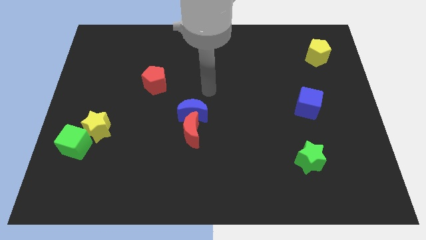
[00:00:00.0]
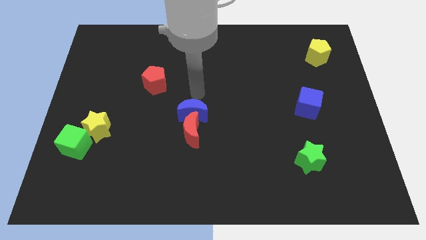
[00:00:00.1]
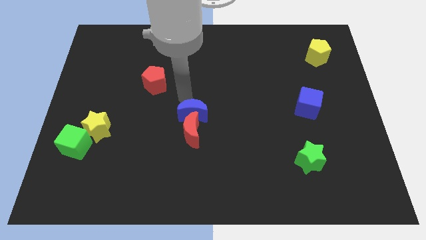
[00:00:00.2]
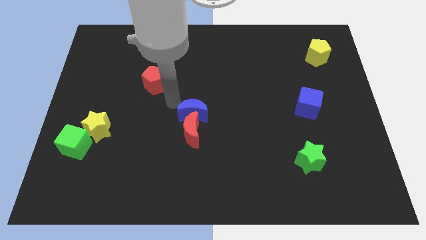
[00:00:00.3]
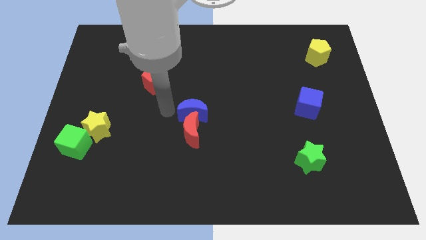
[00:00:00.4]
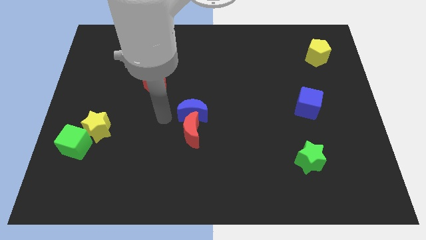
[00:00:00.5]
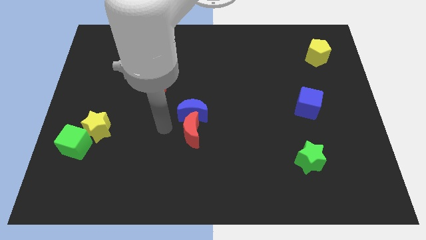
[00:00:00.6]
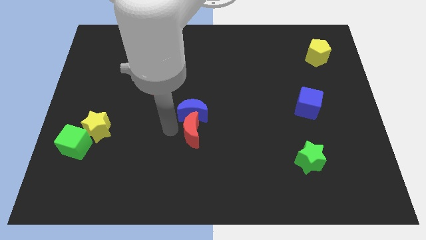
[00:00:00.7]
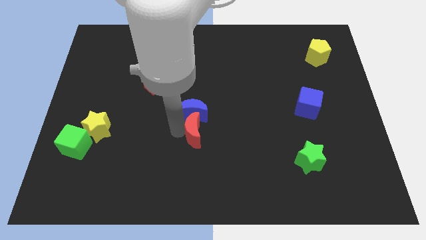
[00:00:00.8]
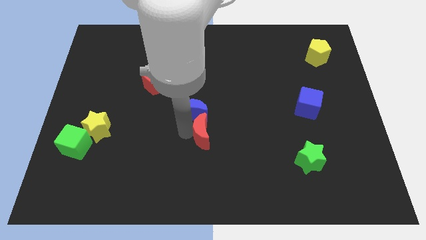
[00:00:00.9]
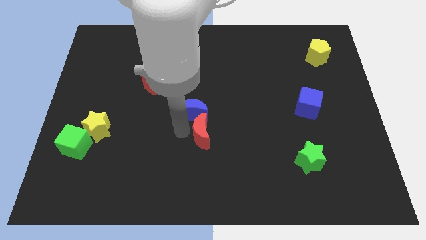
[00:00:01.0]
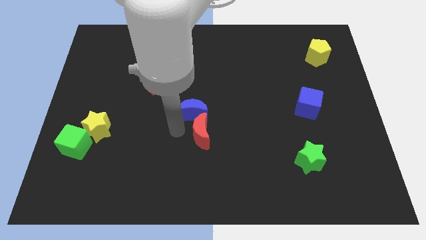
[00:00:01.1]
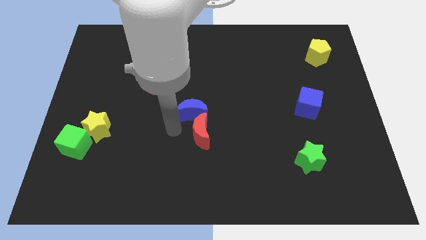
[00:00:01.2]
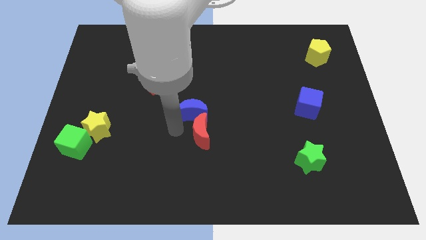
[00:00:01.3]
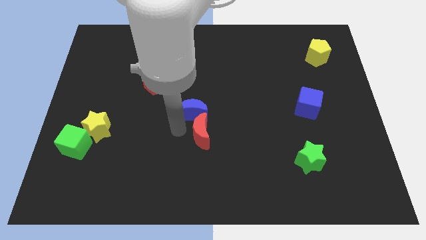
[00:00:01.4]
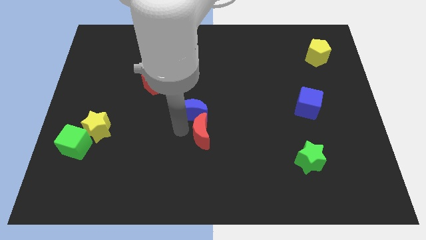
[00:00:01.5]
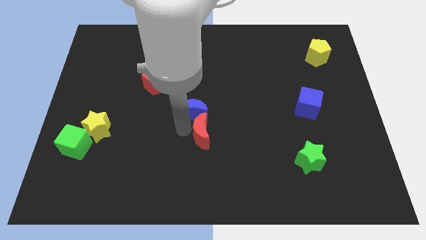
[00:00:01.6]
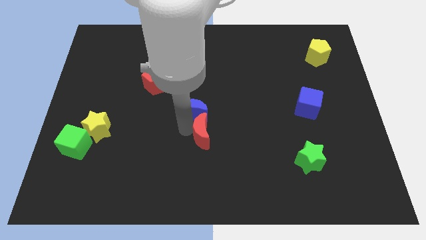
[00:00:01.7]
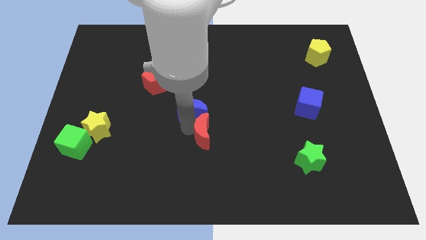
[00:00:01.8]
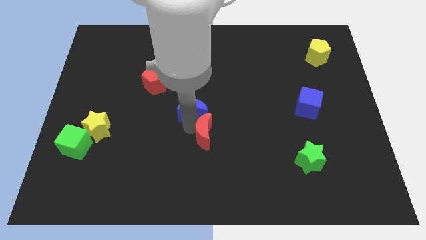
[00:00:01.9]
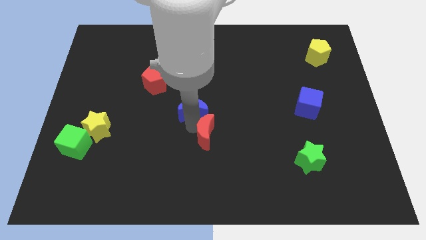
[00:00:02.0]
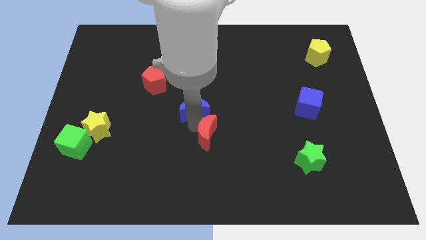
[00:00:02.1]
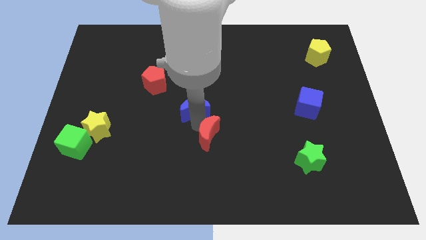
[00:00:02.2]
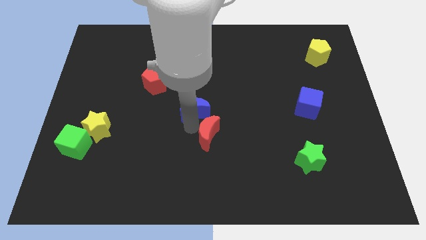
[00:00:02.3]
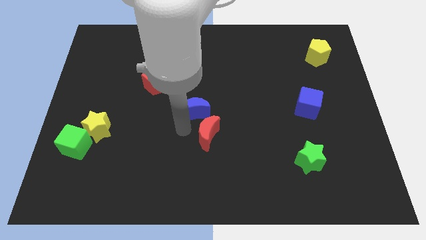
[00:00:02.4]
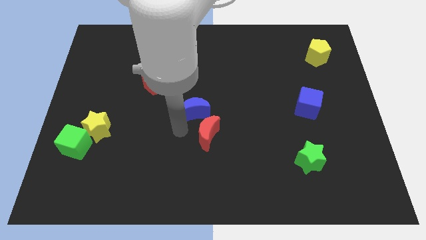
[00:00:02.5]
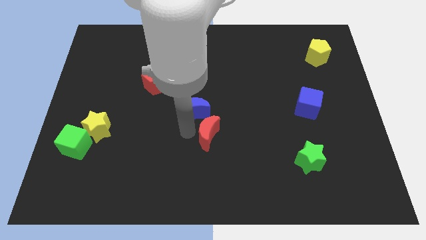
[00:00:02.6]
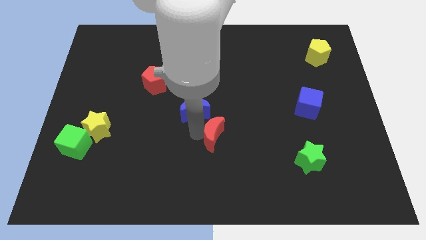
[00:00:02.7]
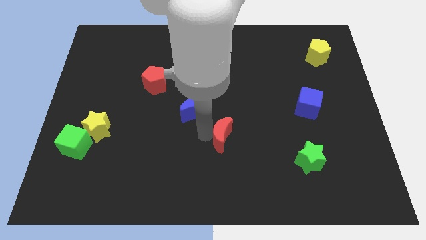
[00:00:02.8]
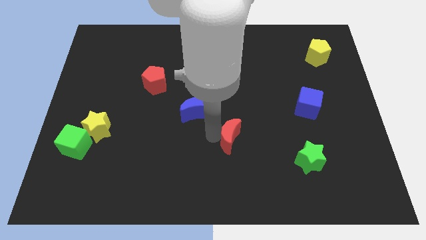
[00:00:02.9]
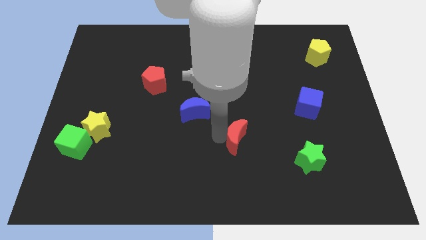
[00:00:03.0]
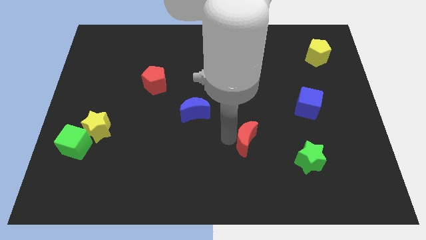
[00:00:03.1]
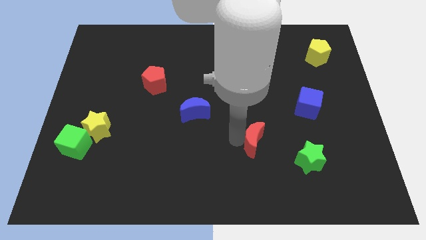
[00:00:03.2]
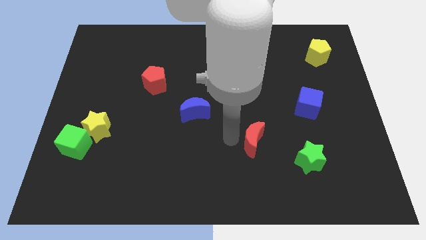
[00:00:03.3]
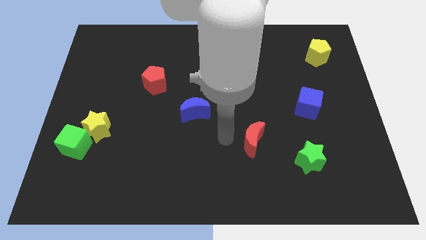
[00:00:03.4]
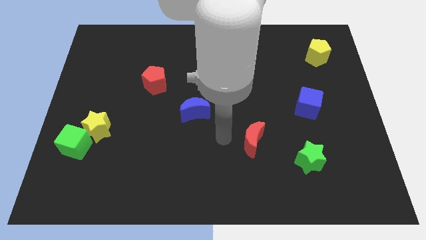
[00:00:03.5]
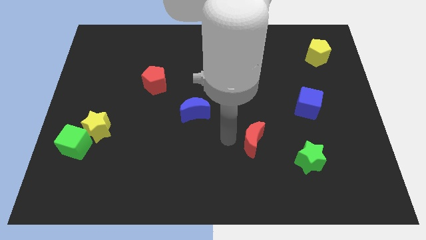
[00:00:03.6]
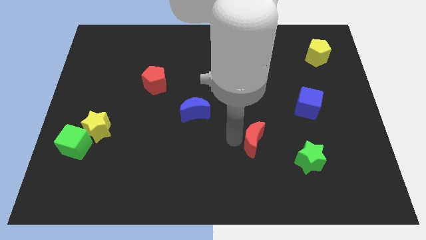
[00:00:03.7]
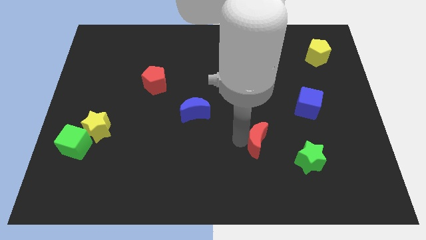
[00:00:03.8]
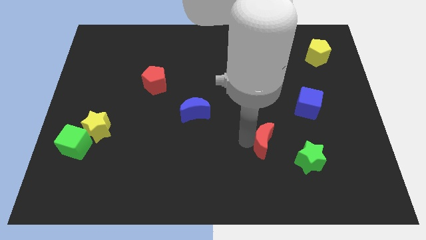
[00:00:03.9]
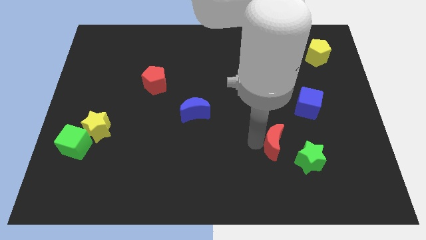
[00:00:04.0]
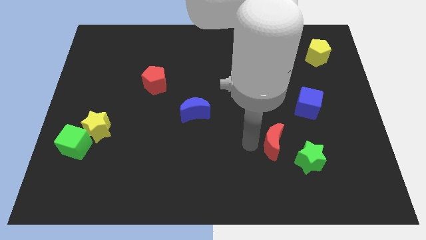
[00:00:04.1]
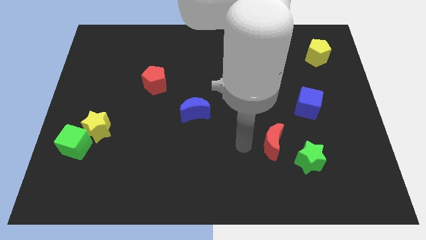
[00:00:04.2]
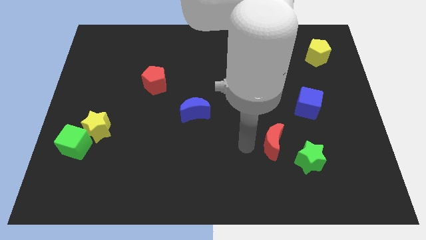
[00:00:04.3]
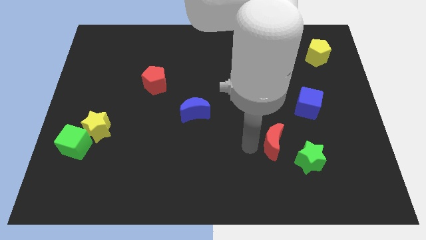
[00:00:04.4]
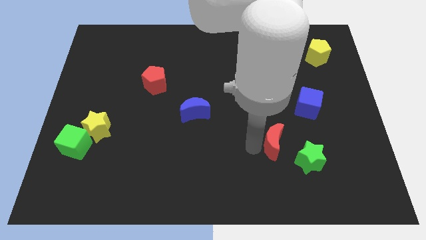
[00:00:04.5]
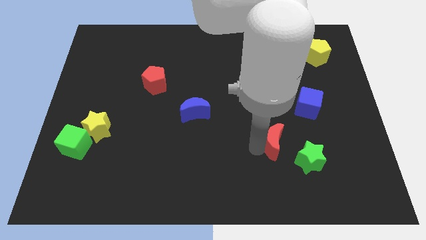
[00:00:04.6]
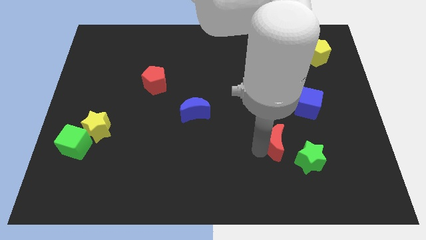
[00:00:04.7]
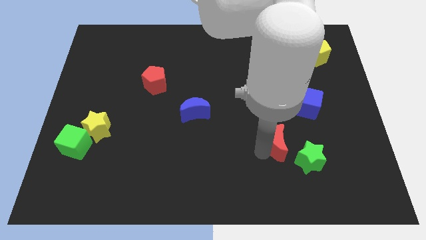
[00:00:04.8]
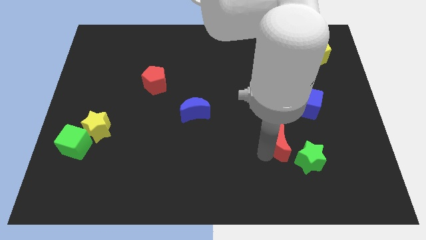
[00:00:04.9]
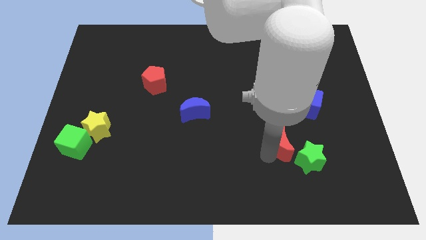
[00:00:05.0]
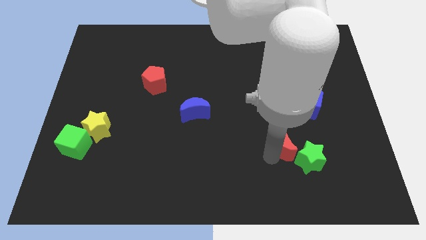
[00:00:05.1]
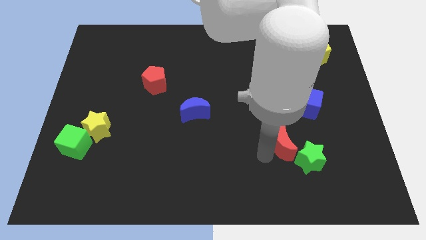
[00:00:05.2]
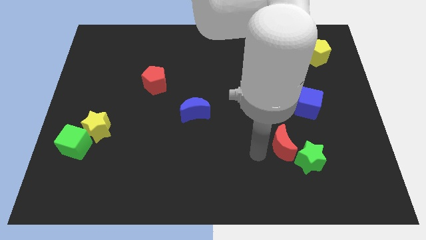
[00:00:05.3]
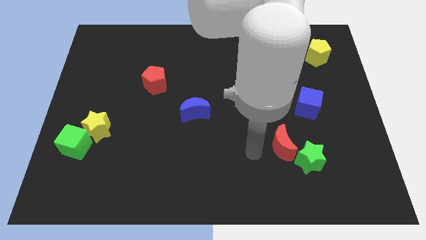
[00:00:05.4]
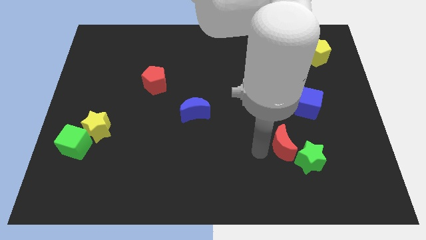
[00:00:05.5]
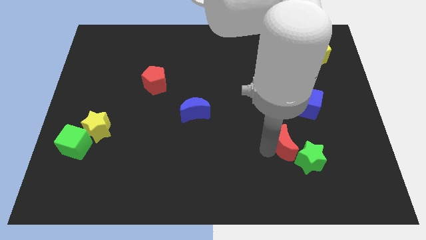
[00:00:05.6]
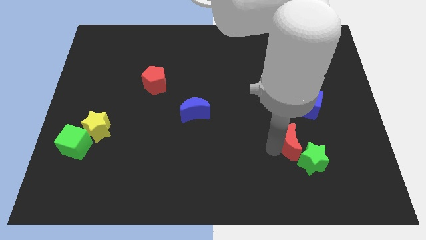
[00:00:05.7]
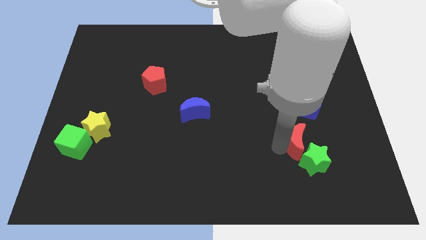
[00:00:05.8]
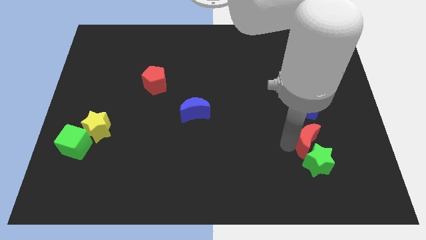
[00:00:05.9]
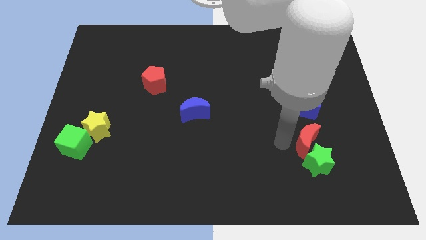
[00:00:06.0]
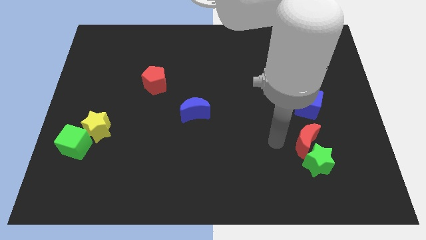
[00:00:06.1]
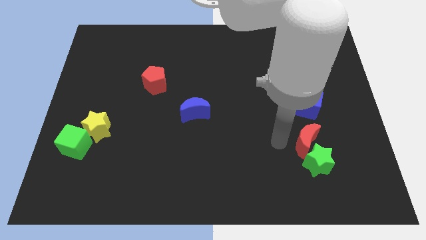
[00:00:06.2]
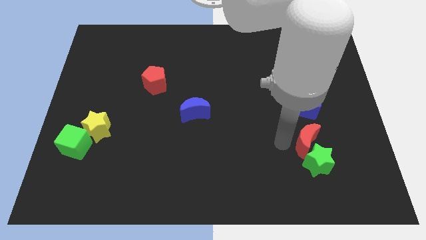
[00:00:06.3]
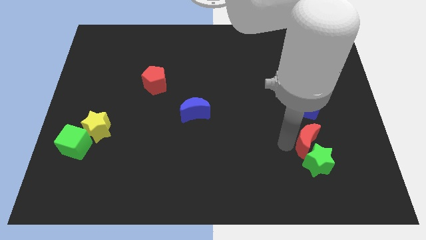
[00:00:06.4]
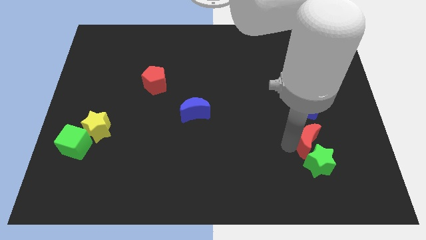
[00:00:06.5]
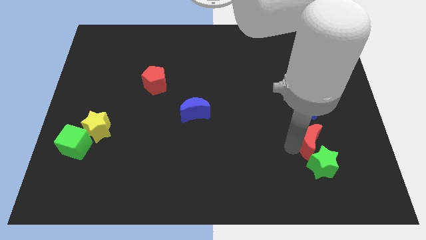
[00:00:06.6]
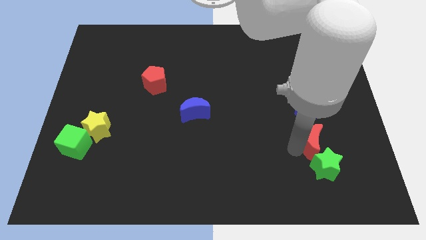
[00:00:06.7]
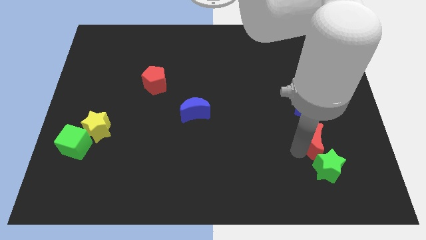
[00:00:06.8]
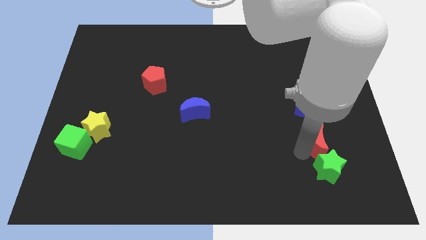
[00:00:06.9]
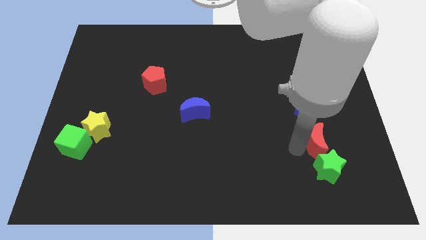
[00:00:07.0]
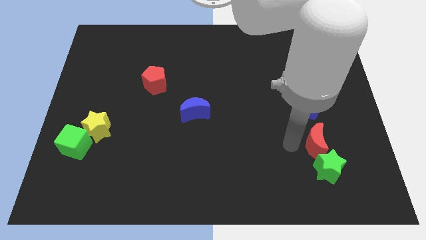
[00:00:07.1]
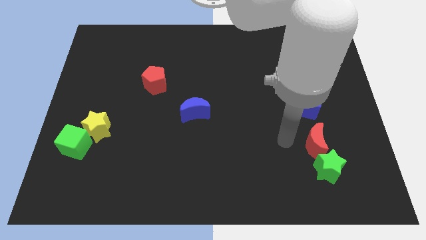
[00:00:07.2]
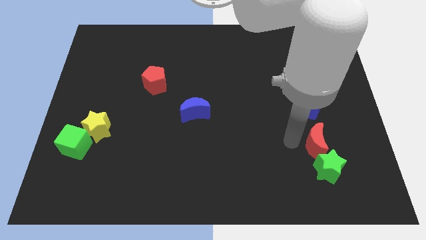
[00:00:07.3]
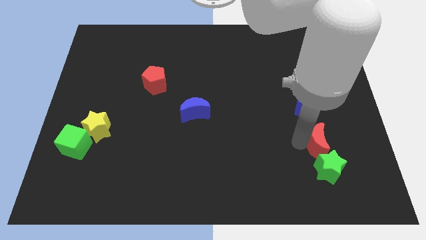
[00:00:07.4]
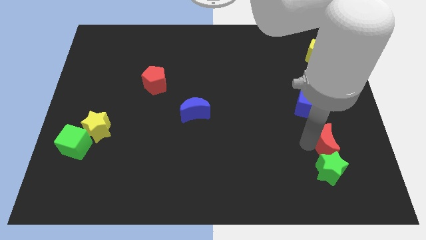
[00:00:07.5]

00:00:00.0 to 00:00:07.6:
move the red moon diagonally up and to the right of the green star

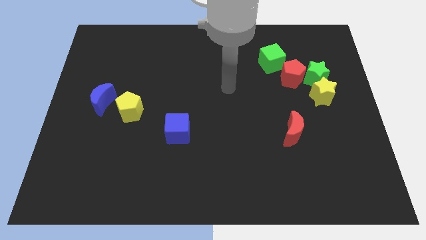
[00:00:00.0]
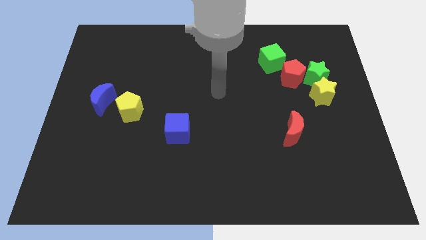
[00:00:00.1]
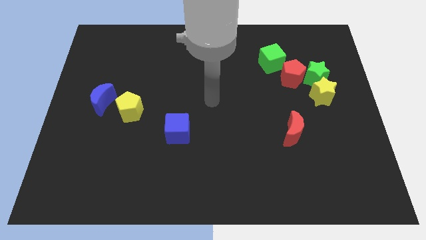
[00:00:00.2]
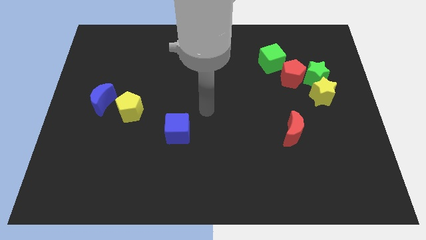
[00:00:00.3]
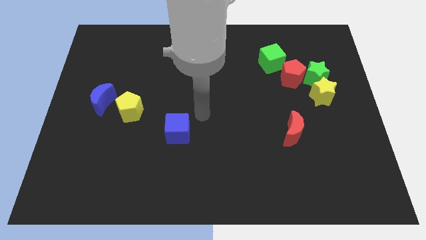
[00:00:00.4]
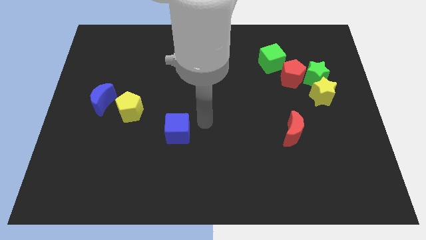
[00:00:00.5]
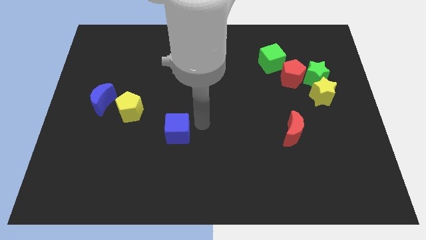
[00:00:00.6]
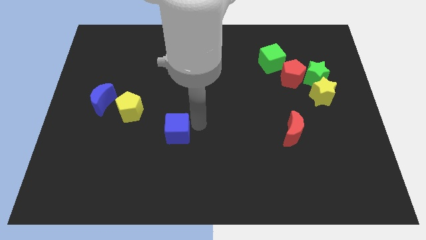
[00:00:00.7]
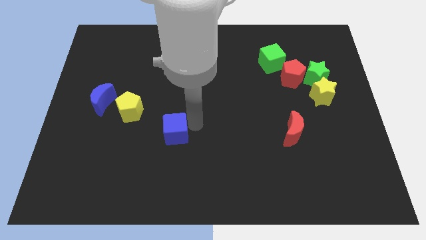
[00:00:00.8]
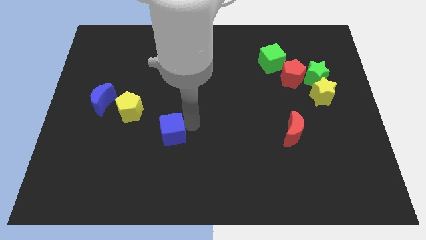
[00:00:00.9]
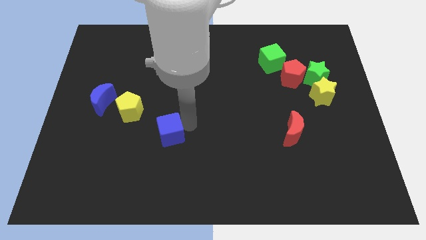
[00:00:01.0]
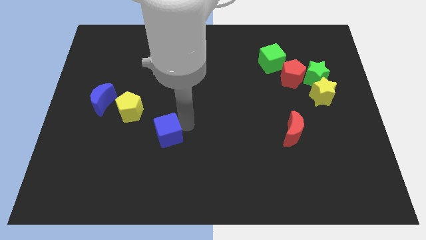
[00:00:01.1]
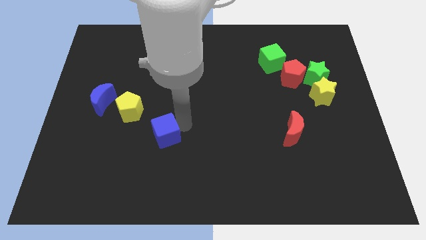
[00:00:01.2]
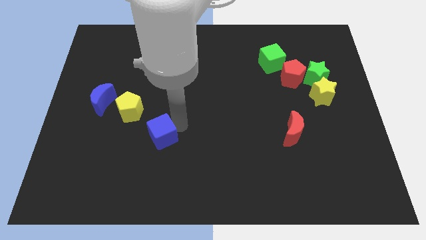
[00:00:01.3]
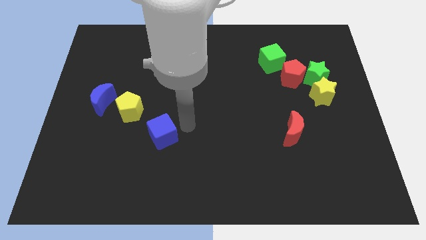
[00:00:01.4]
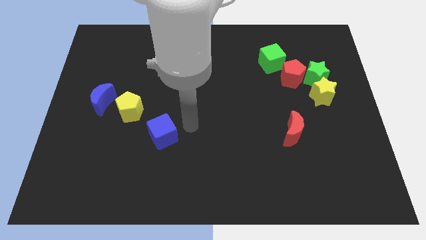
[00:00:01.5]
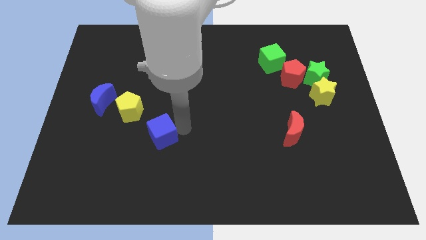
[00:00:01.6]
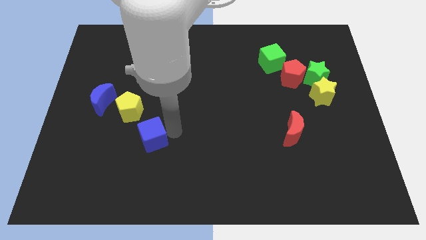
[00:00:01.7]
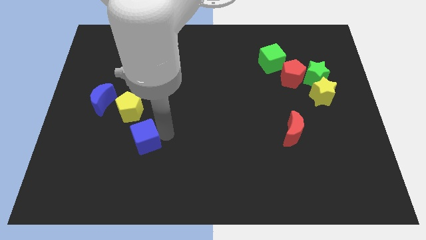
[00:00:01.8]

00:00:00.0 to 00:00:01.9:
push the blue cube to the bottom side of the yellow pentagon
